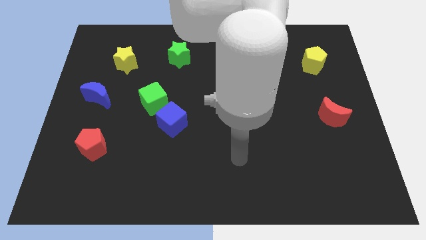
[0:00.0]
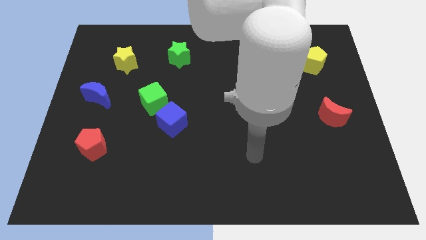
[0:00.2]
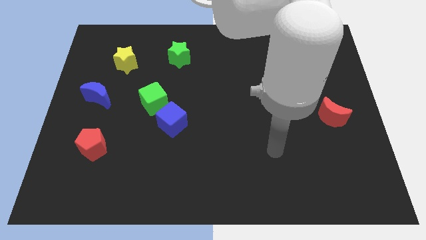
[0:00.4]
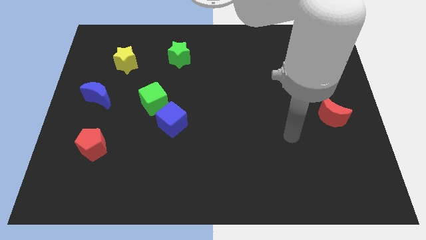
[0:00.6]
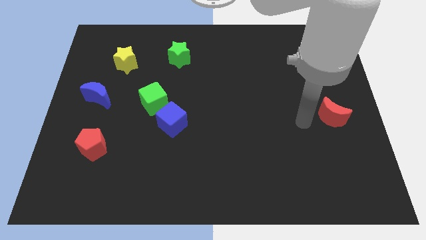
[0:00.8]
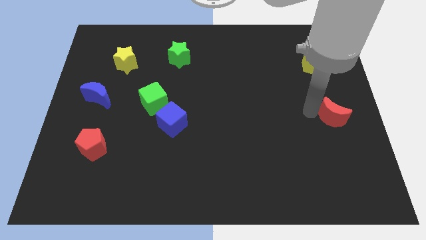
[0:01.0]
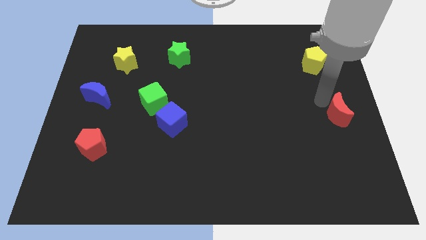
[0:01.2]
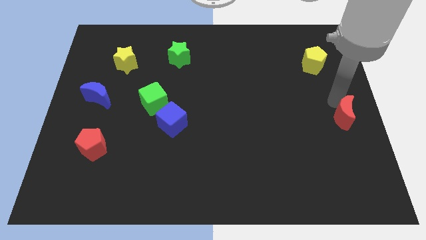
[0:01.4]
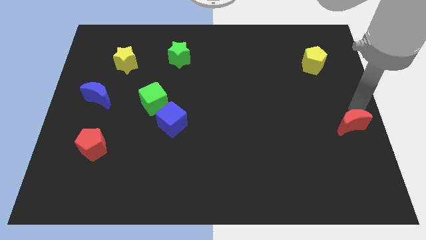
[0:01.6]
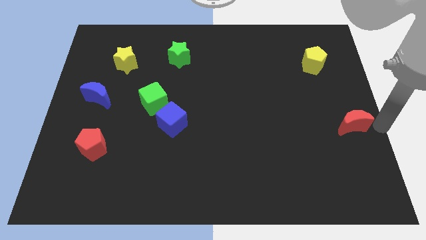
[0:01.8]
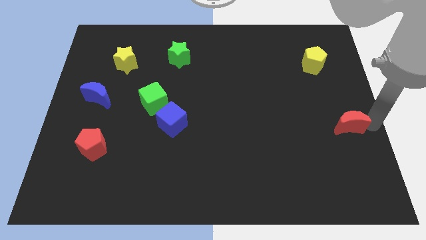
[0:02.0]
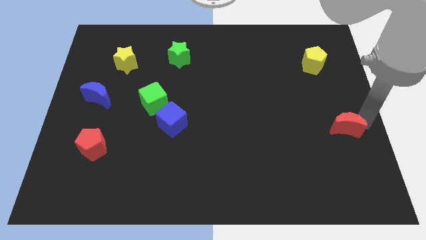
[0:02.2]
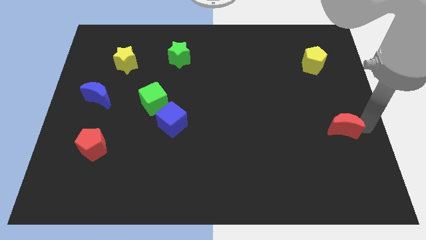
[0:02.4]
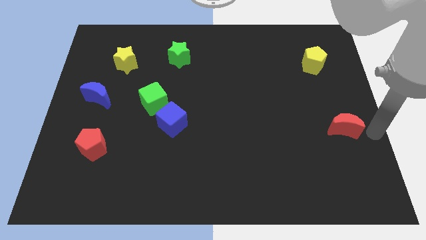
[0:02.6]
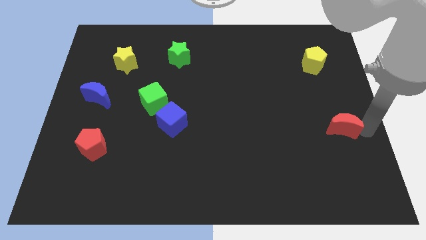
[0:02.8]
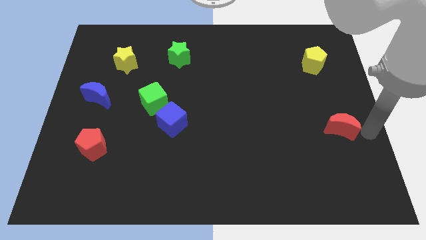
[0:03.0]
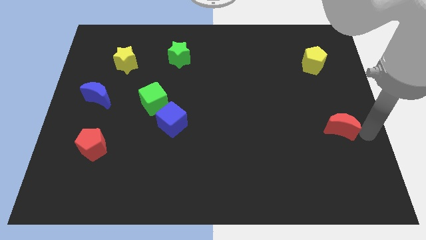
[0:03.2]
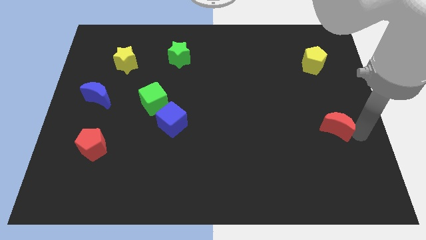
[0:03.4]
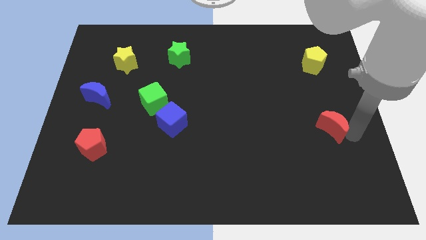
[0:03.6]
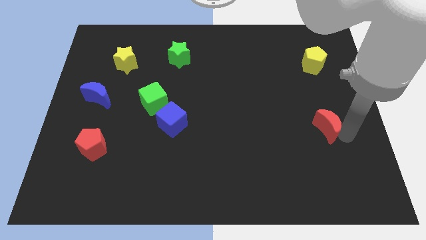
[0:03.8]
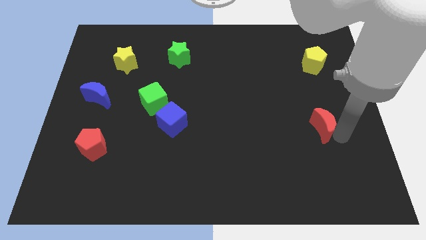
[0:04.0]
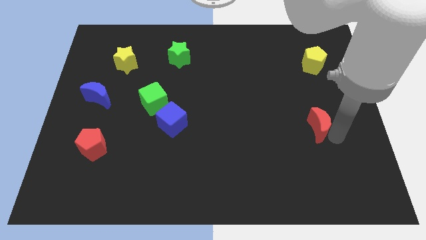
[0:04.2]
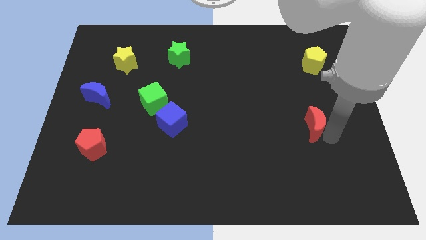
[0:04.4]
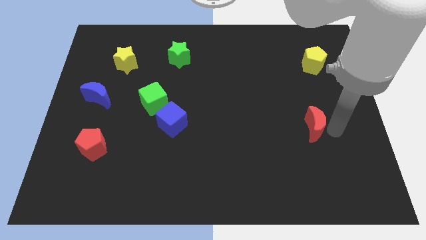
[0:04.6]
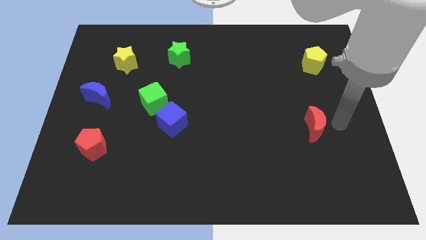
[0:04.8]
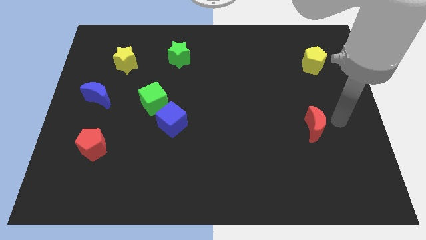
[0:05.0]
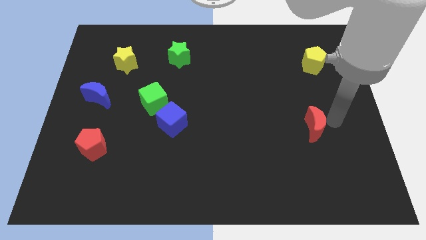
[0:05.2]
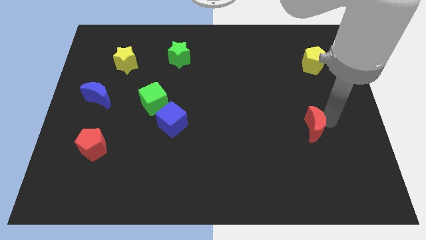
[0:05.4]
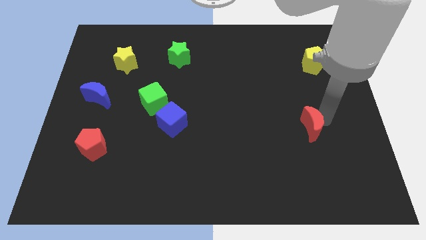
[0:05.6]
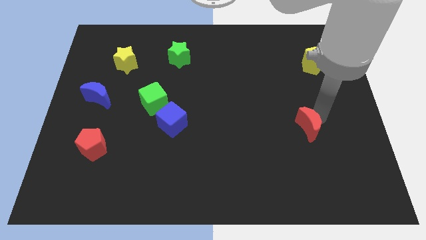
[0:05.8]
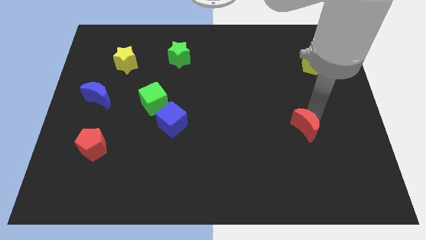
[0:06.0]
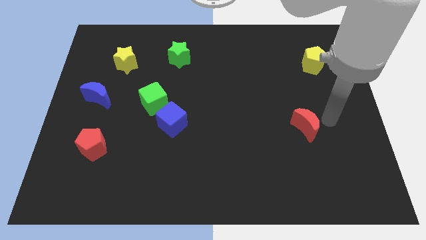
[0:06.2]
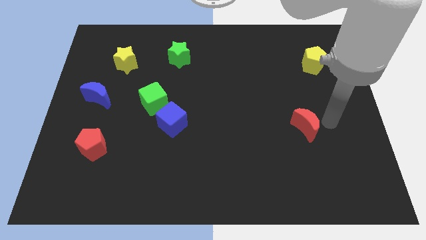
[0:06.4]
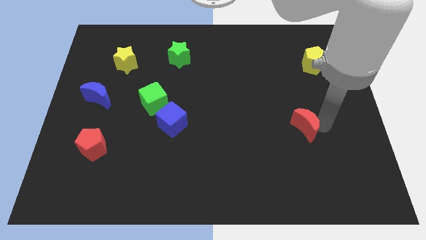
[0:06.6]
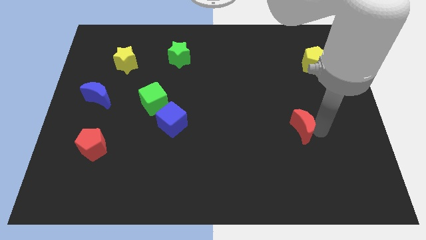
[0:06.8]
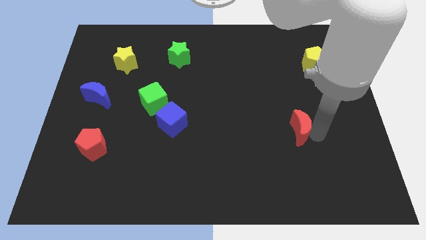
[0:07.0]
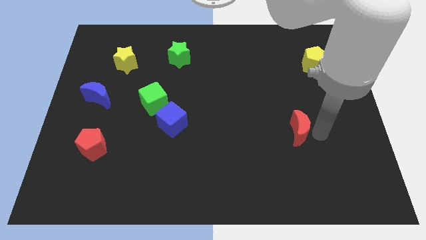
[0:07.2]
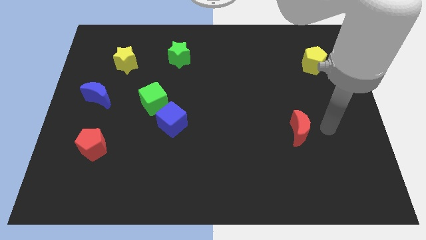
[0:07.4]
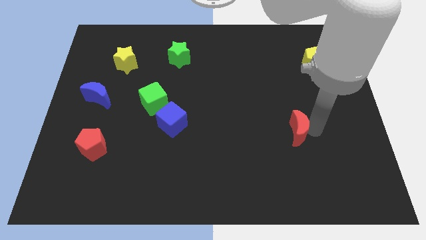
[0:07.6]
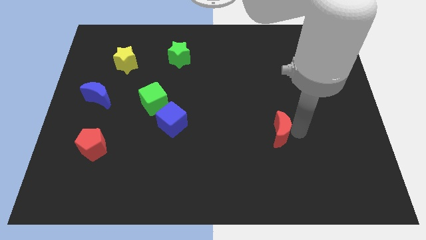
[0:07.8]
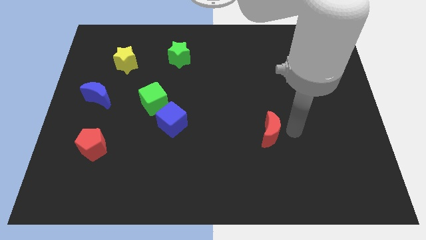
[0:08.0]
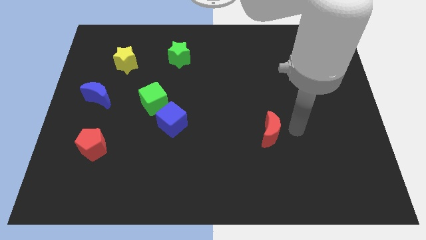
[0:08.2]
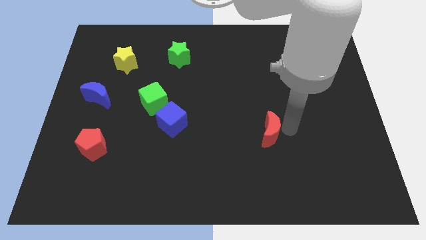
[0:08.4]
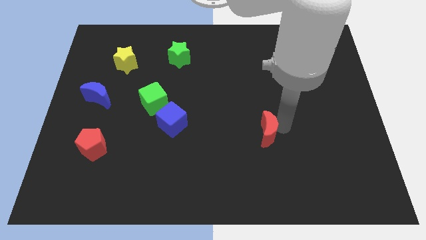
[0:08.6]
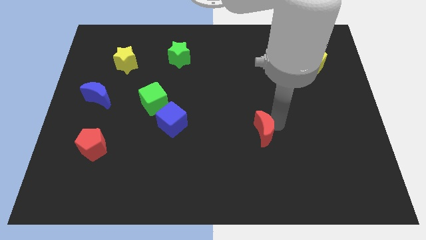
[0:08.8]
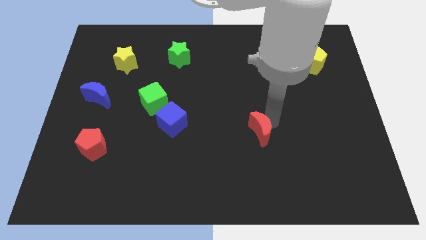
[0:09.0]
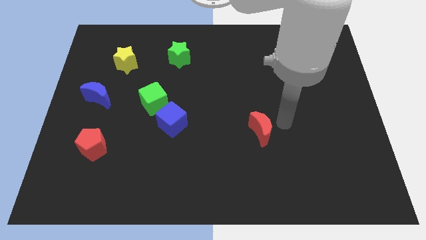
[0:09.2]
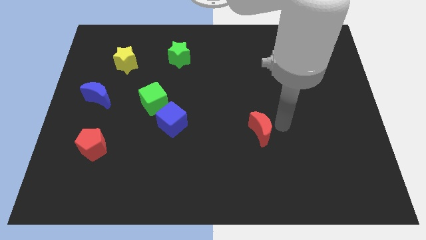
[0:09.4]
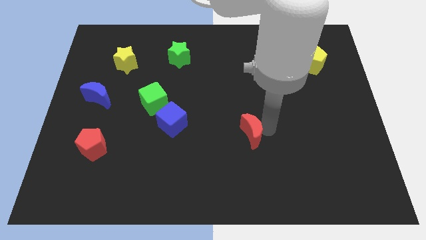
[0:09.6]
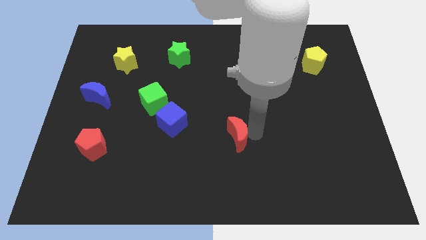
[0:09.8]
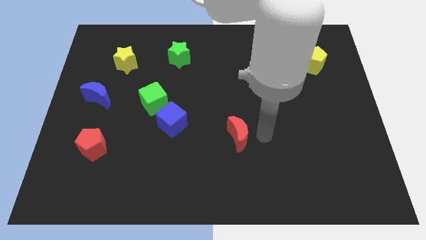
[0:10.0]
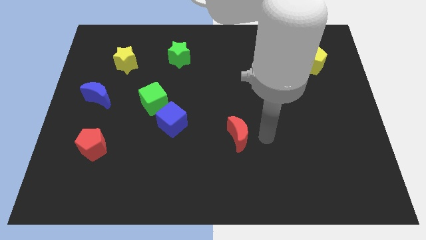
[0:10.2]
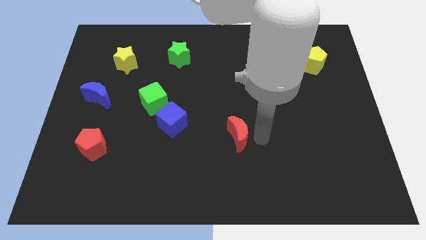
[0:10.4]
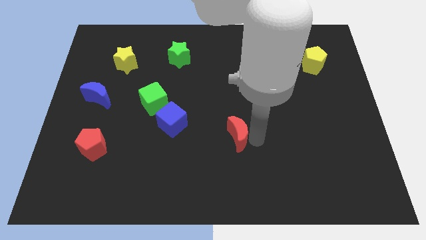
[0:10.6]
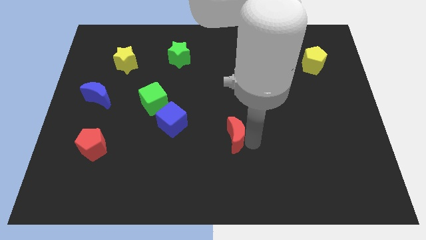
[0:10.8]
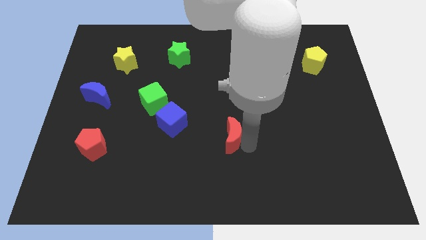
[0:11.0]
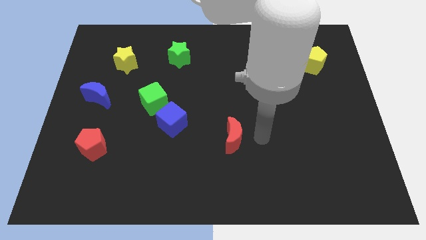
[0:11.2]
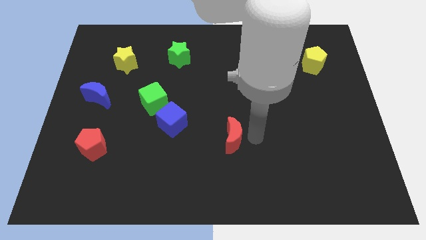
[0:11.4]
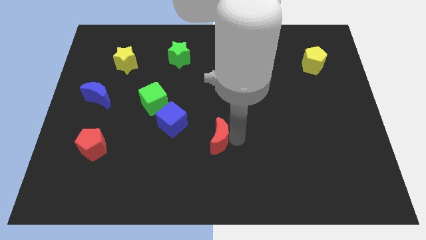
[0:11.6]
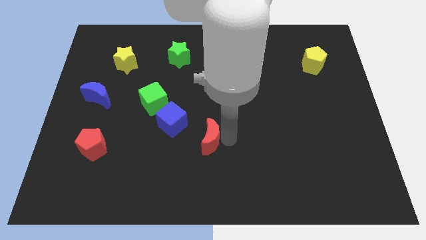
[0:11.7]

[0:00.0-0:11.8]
move the red moon diagonally down and to the right of the blue cube
